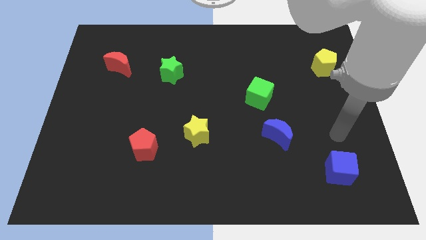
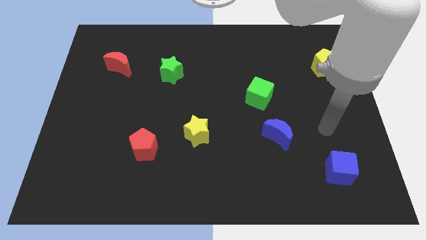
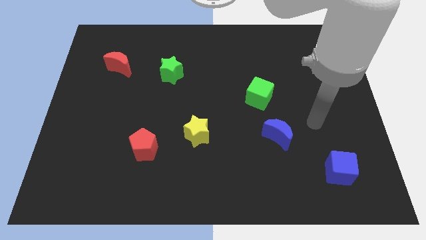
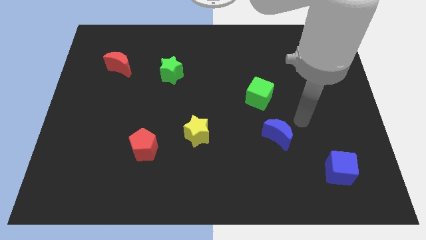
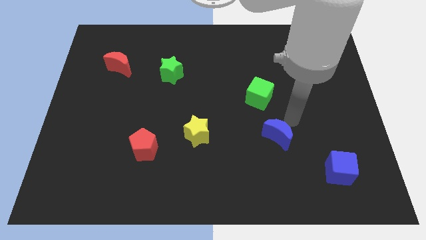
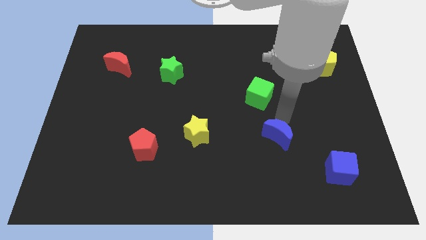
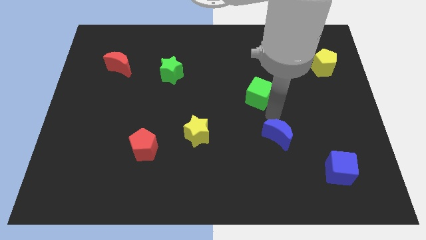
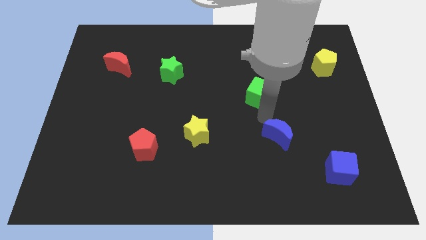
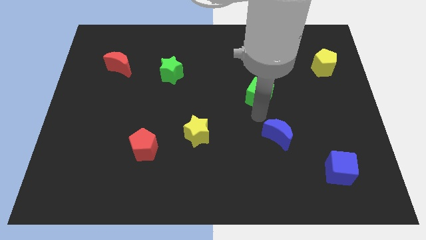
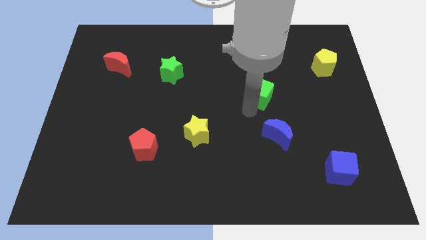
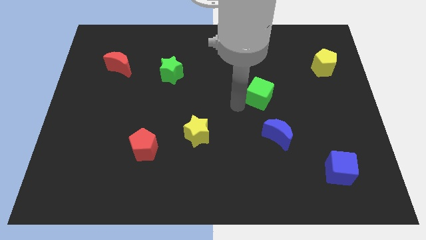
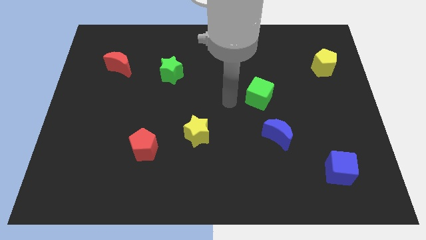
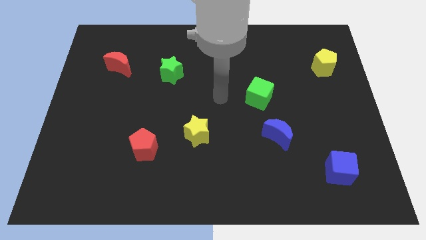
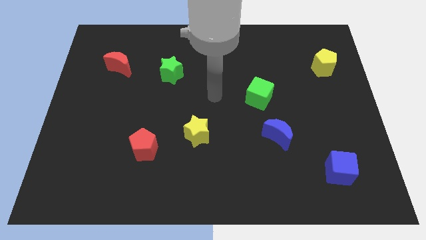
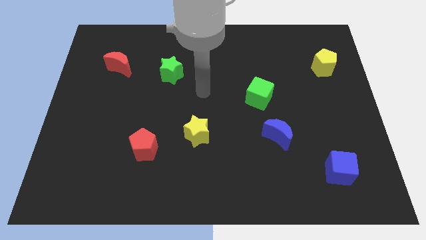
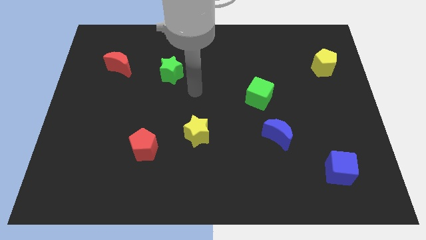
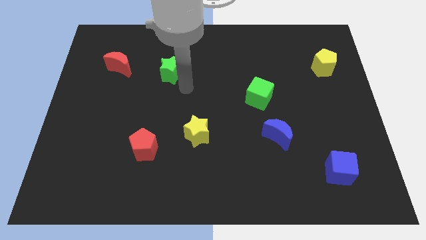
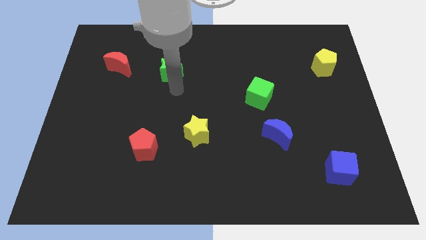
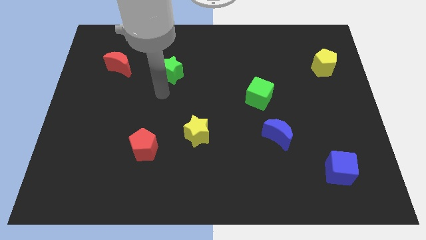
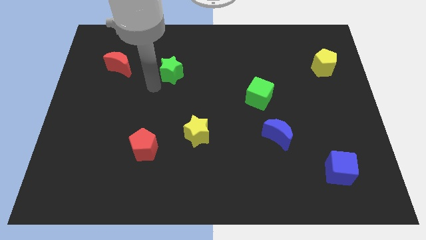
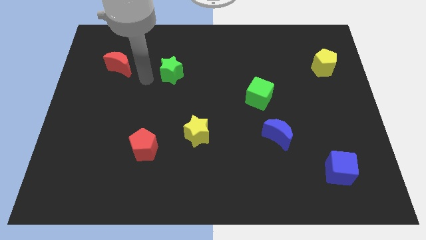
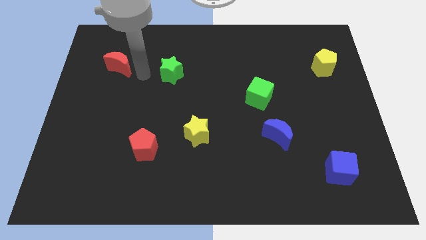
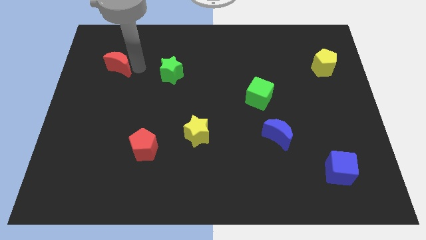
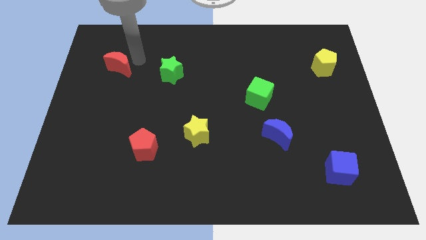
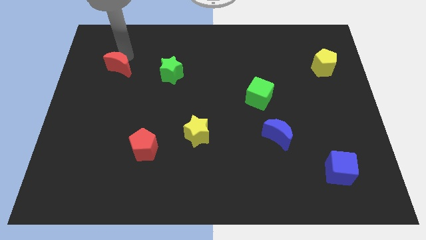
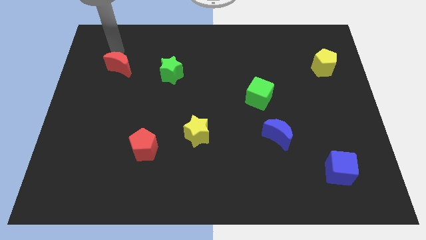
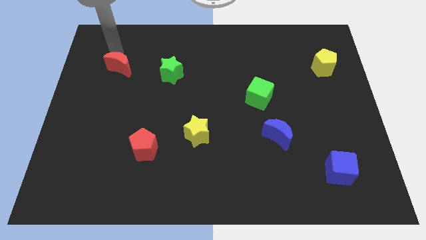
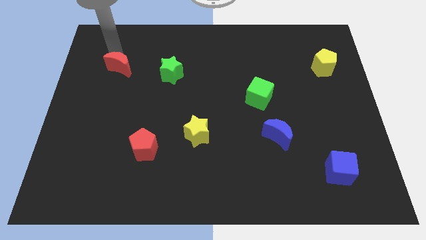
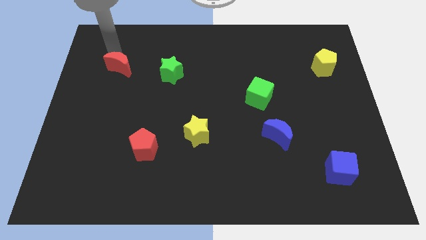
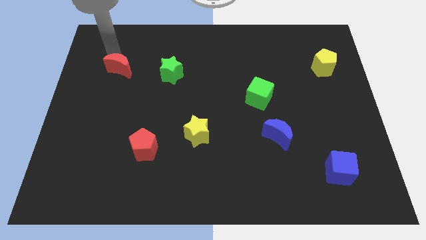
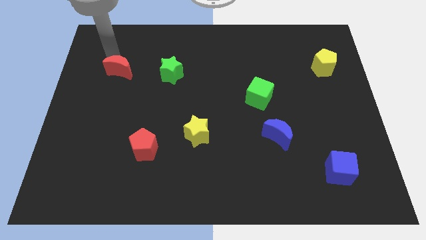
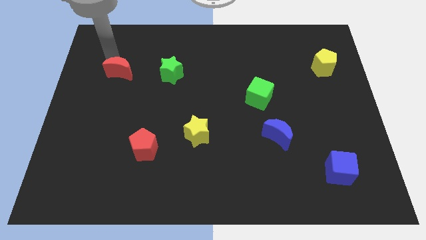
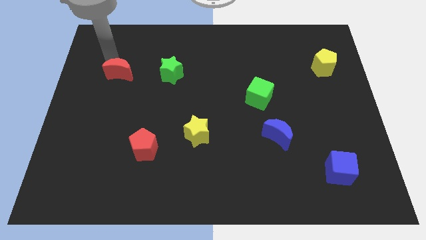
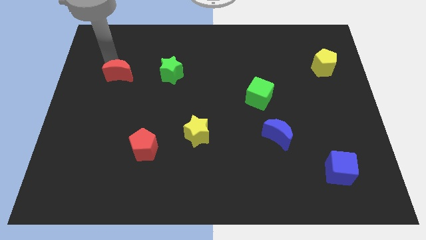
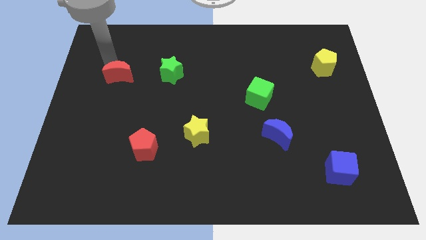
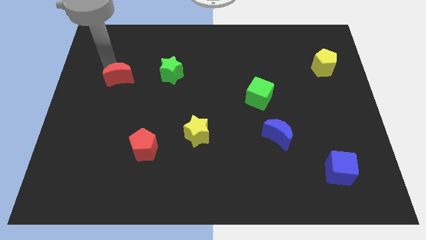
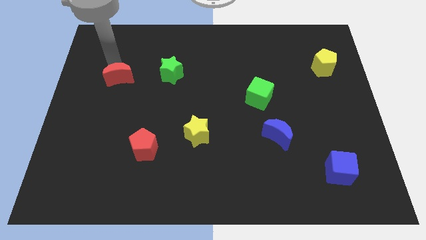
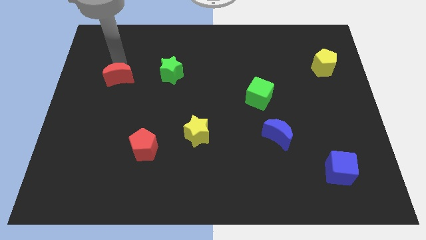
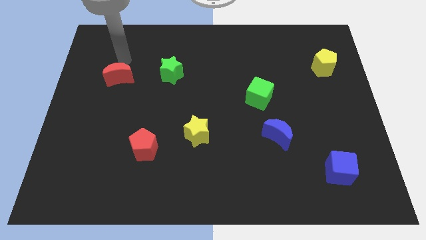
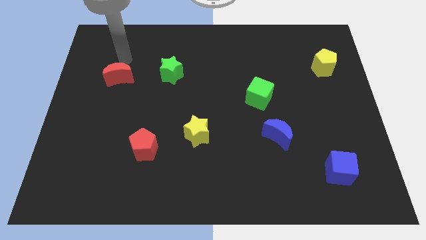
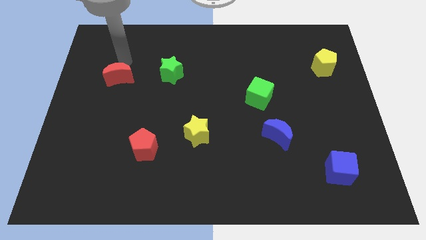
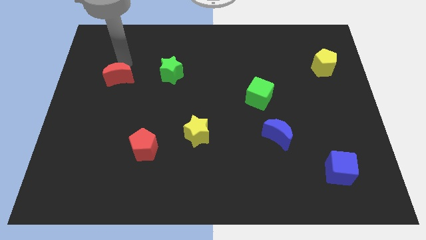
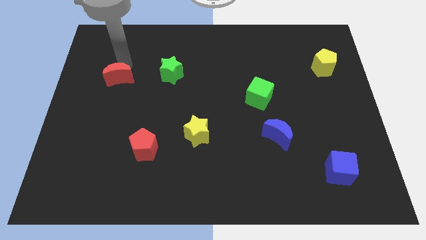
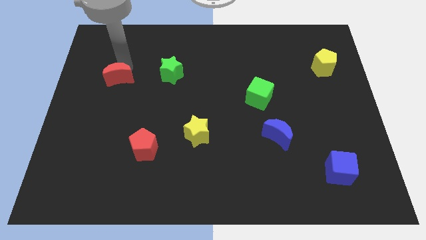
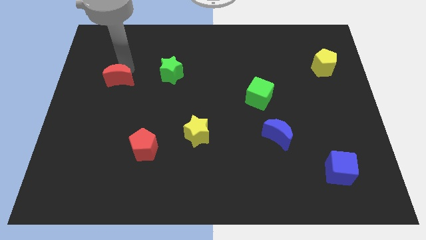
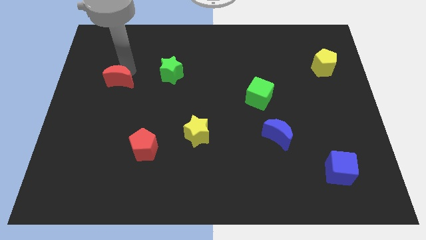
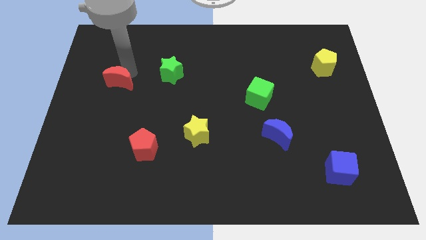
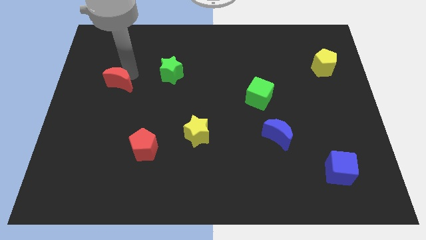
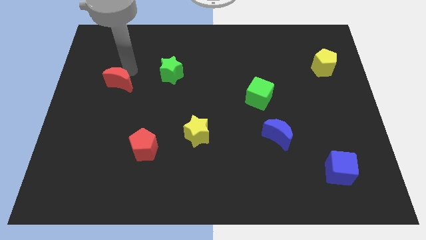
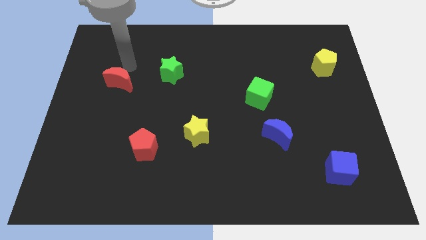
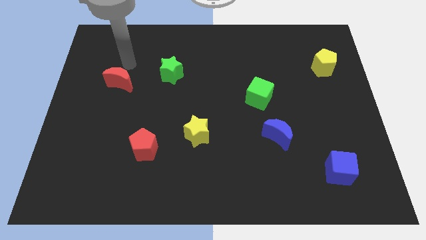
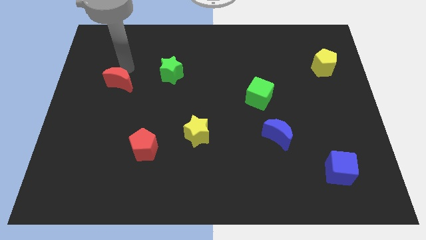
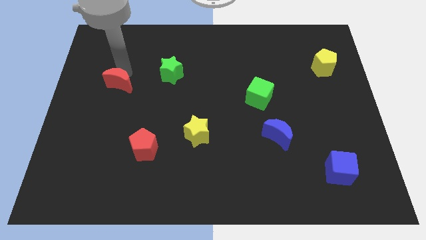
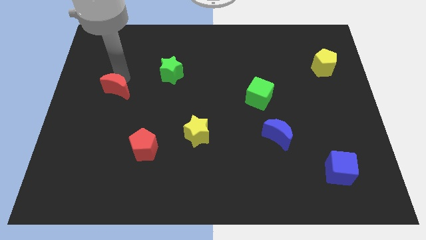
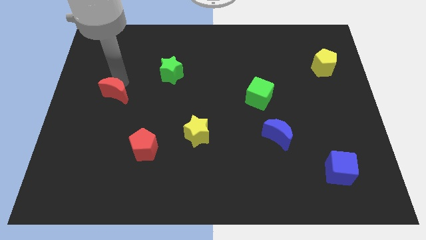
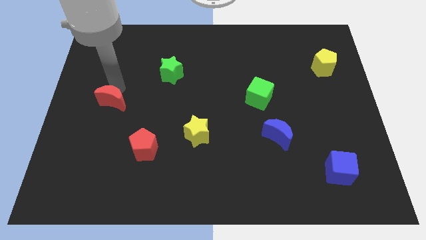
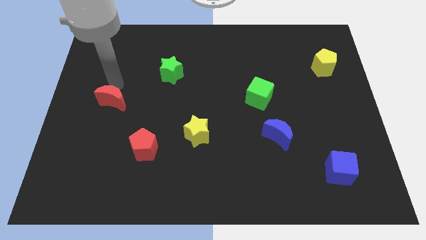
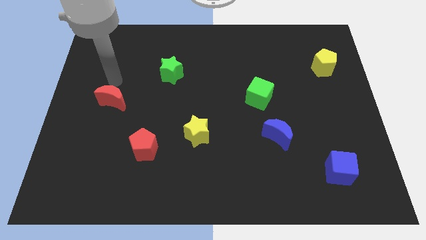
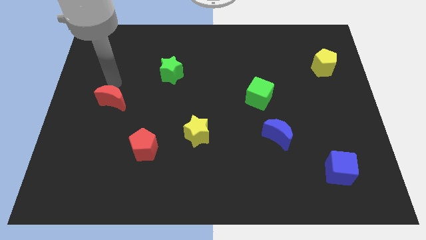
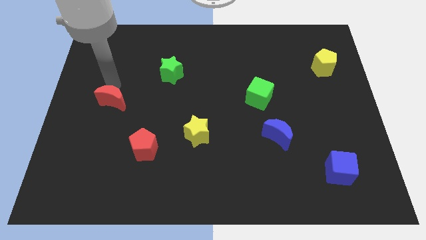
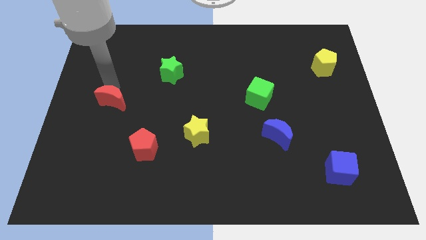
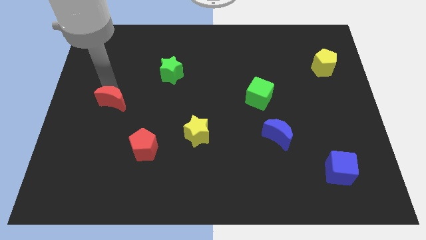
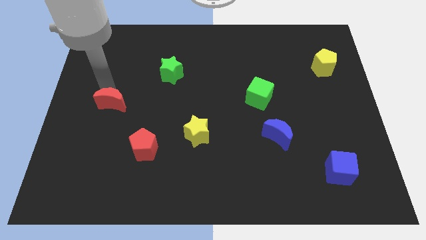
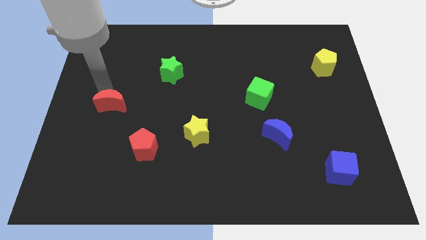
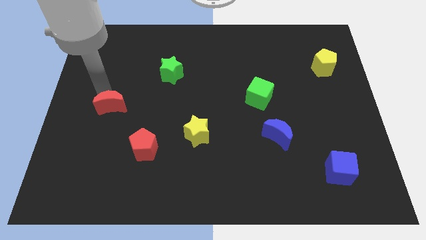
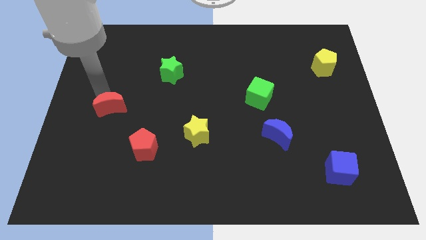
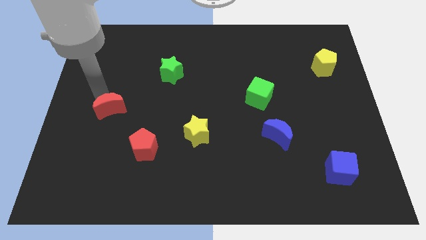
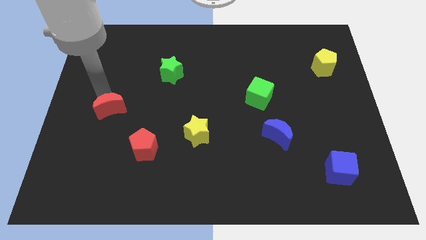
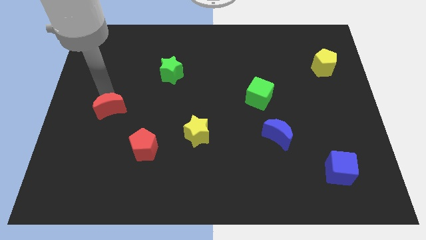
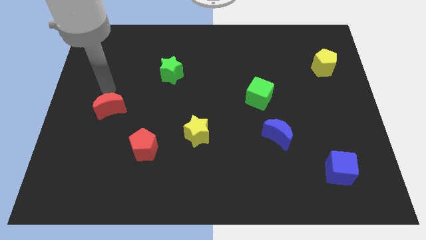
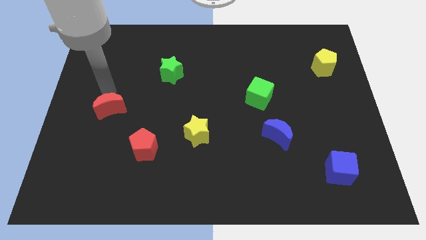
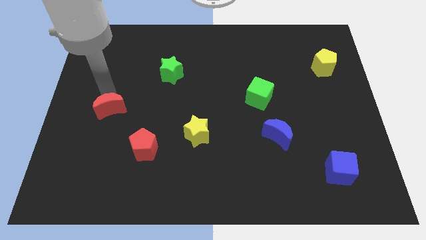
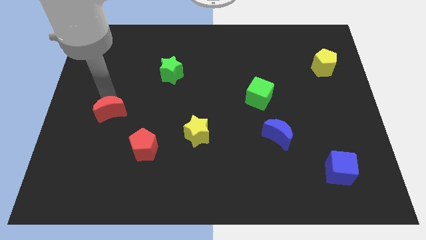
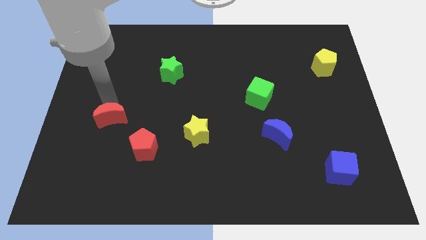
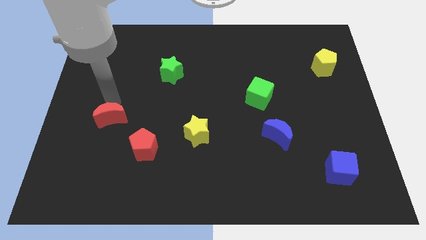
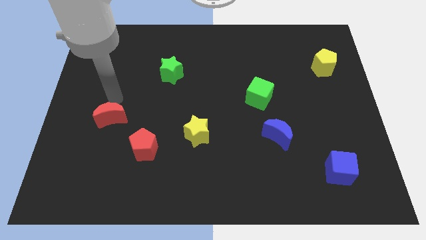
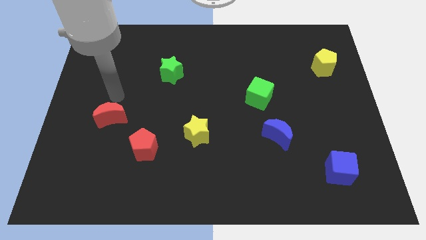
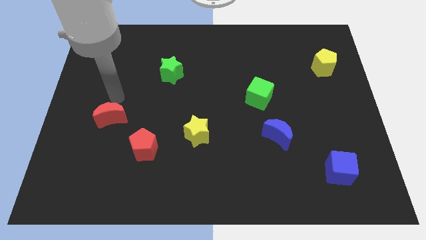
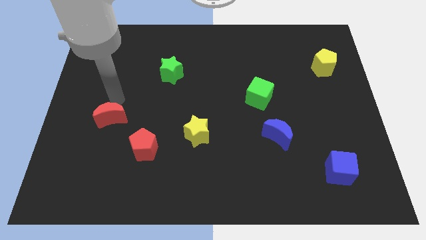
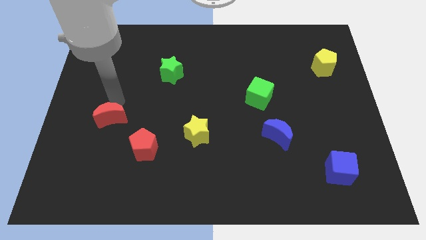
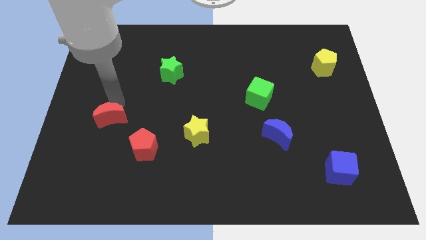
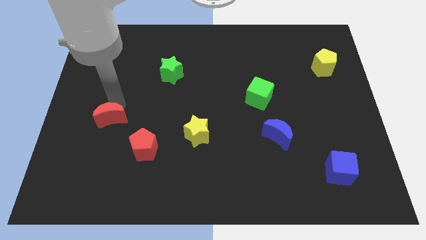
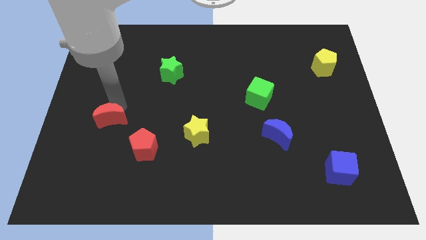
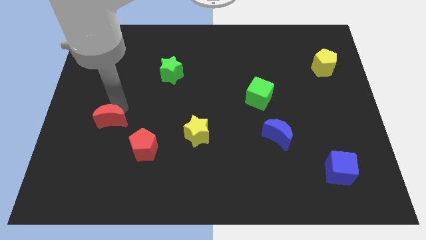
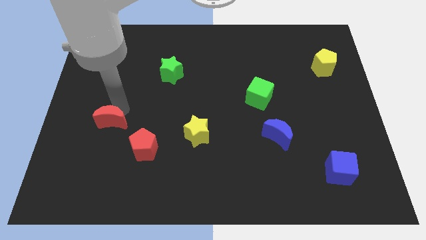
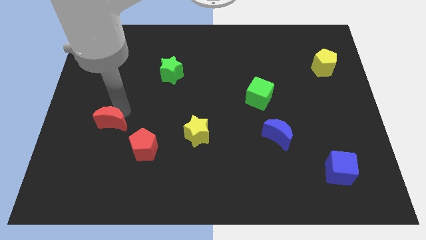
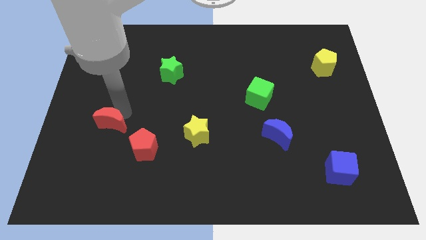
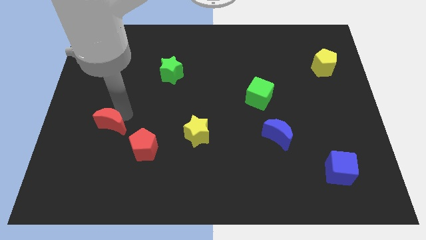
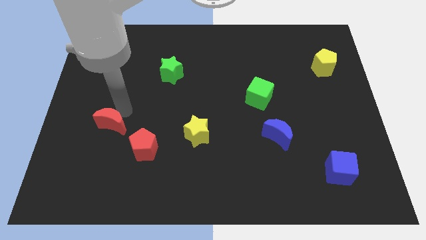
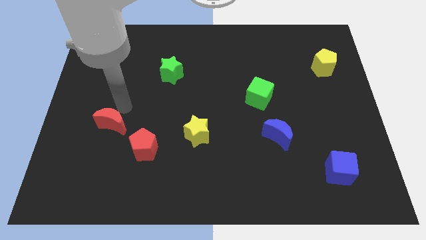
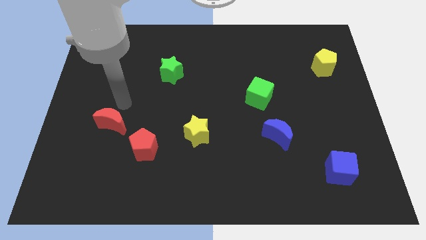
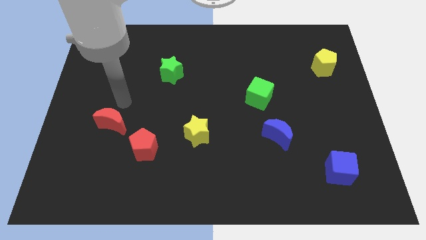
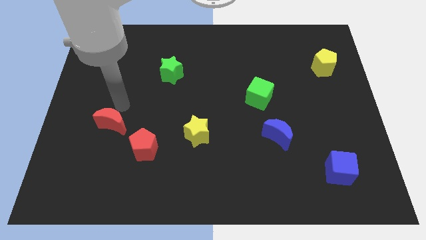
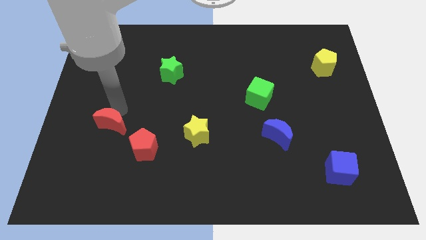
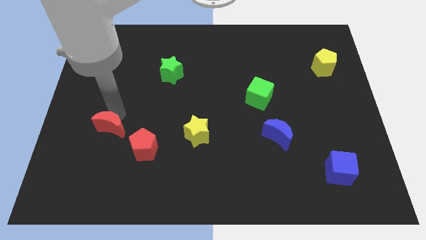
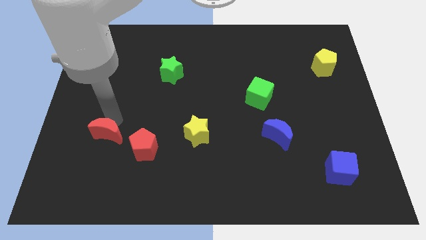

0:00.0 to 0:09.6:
push the red moon downwards
